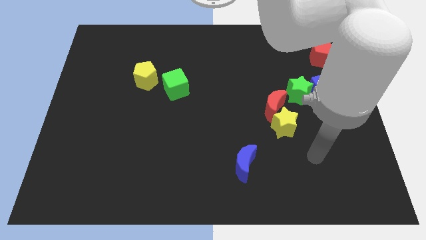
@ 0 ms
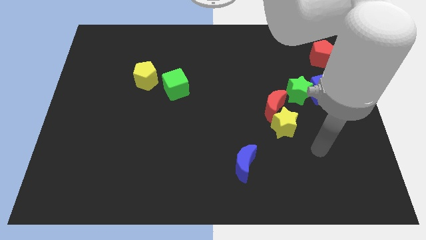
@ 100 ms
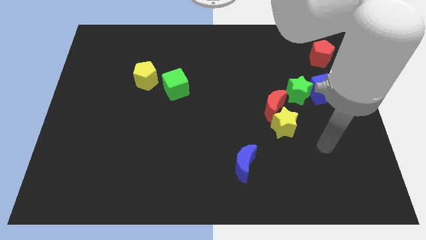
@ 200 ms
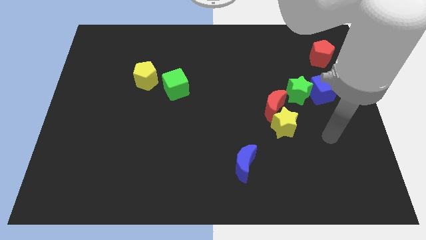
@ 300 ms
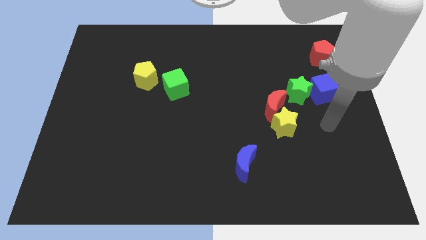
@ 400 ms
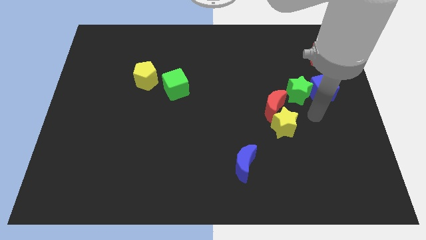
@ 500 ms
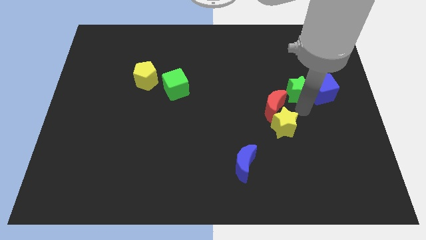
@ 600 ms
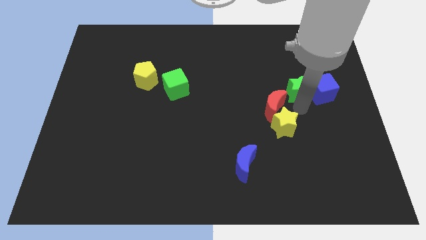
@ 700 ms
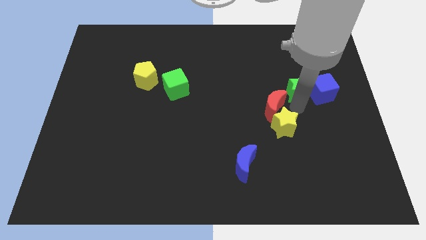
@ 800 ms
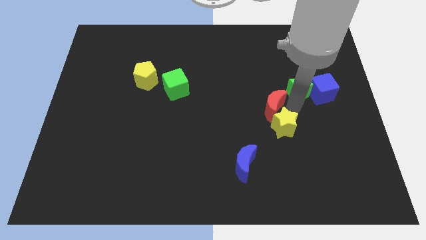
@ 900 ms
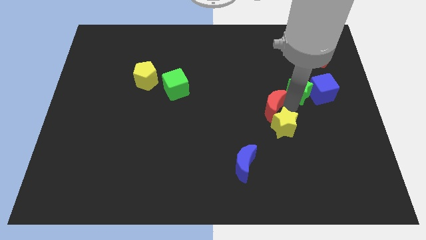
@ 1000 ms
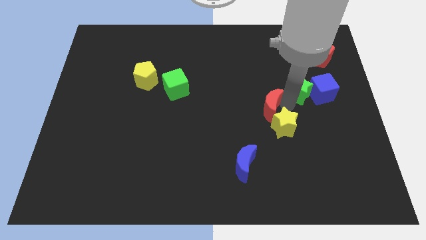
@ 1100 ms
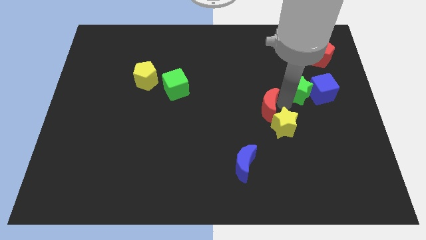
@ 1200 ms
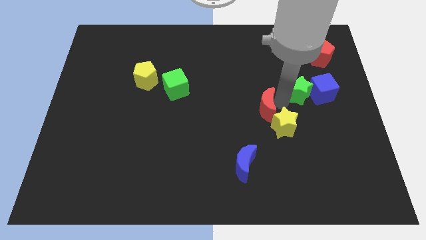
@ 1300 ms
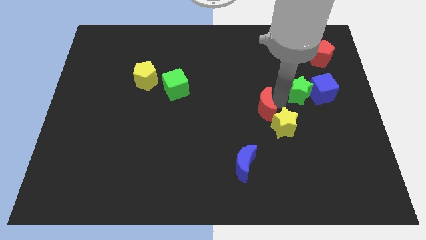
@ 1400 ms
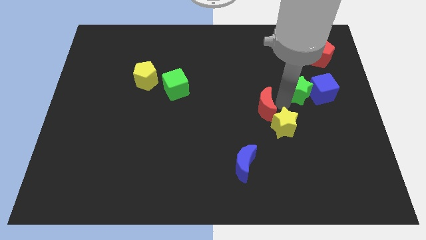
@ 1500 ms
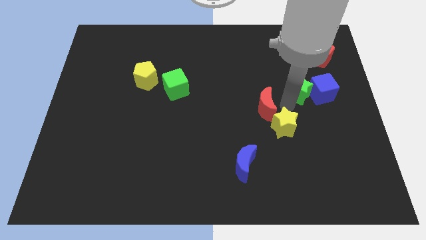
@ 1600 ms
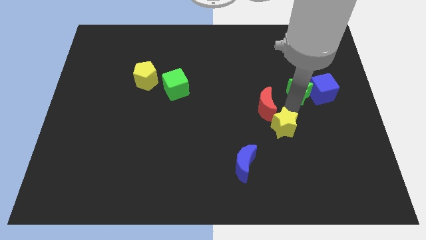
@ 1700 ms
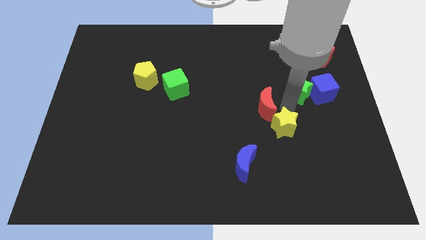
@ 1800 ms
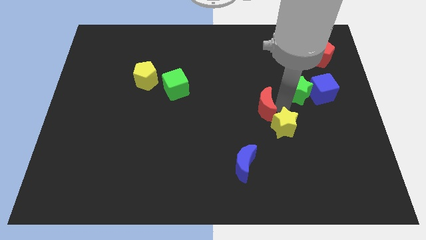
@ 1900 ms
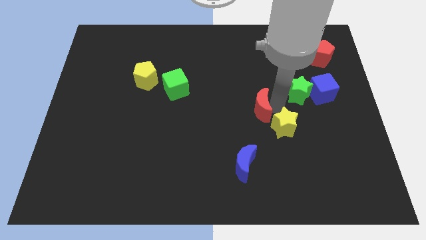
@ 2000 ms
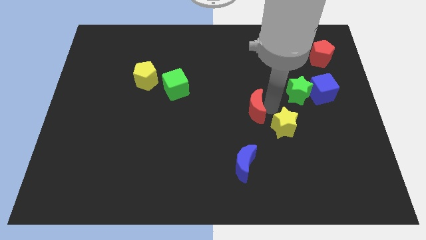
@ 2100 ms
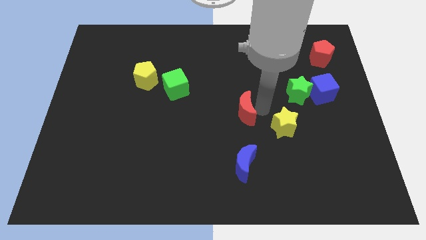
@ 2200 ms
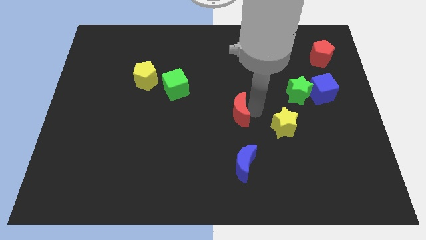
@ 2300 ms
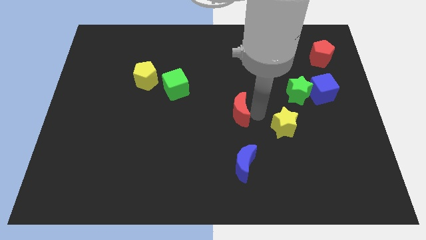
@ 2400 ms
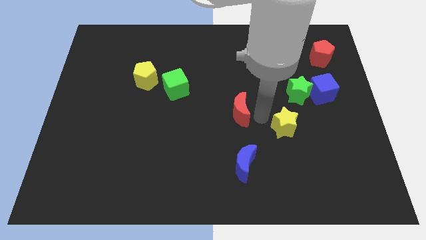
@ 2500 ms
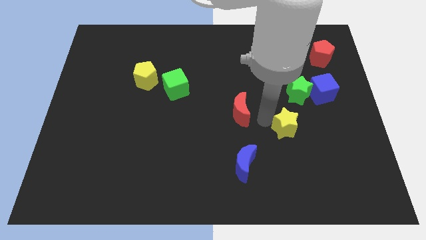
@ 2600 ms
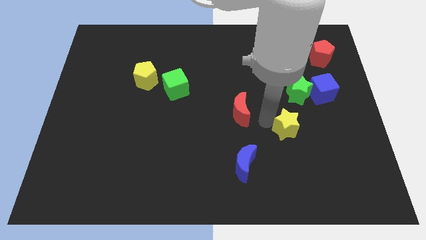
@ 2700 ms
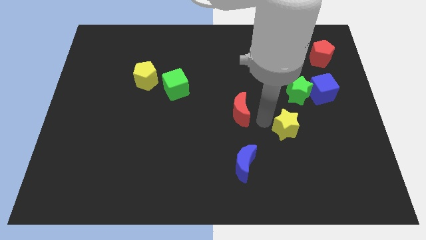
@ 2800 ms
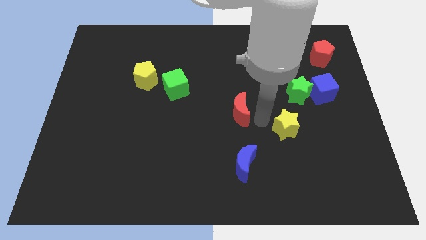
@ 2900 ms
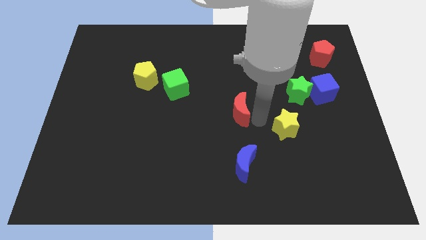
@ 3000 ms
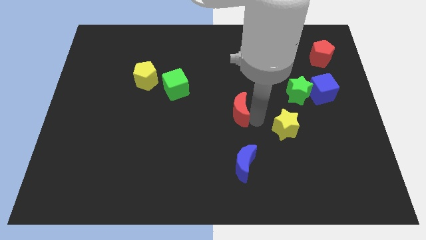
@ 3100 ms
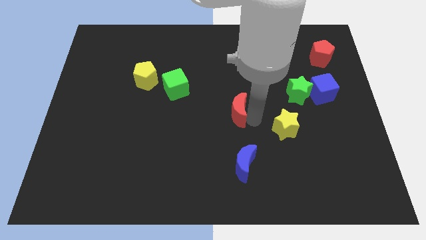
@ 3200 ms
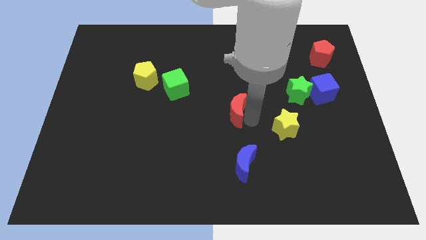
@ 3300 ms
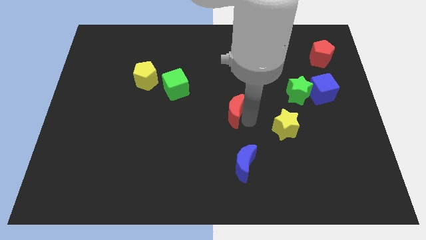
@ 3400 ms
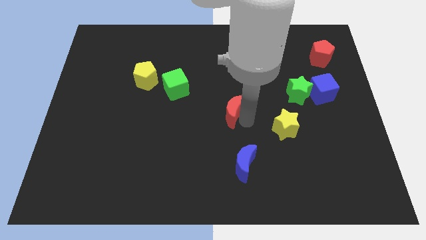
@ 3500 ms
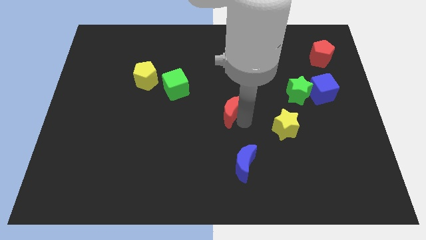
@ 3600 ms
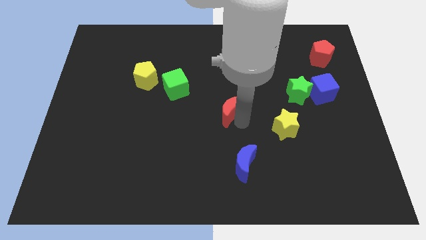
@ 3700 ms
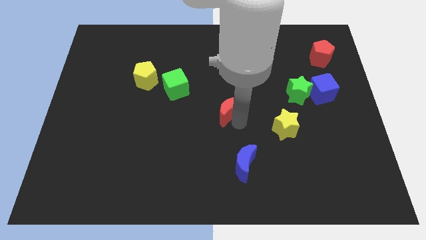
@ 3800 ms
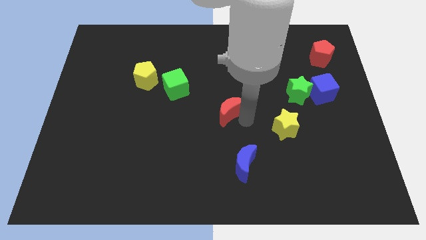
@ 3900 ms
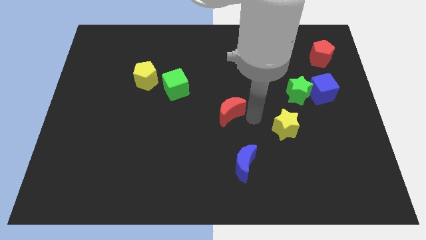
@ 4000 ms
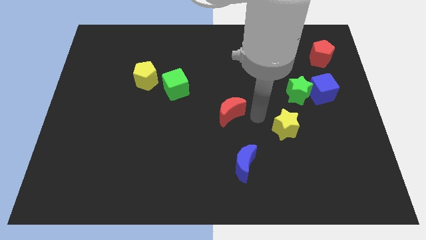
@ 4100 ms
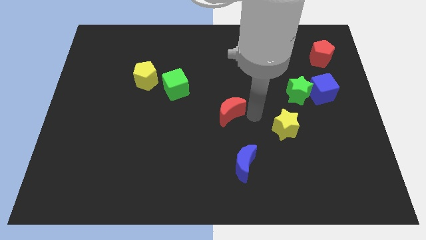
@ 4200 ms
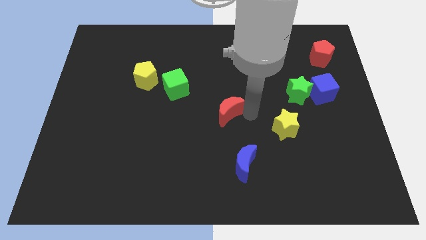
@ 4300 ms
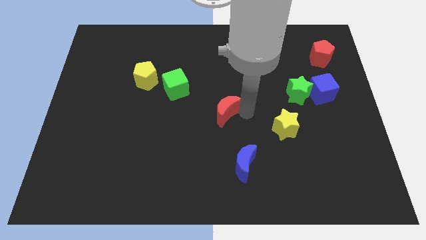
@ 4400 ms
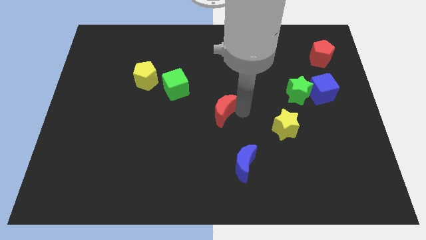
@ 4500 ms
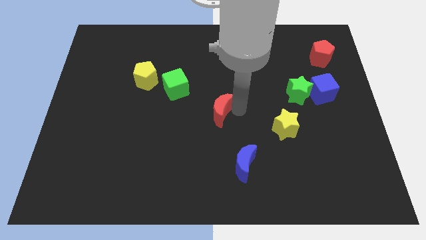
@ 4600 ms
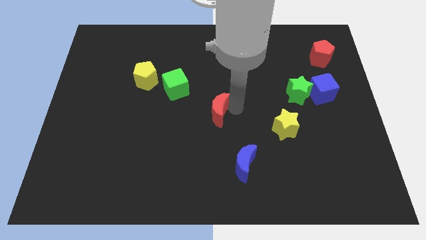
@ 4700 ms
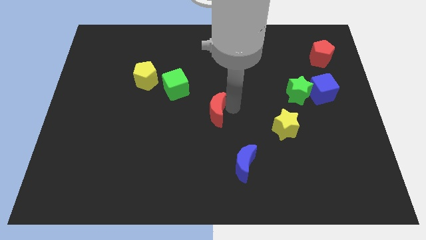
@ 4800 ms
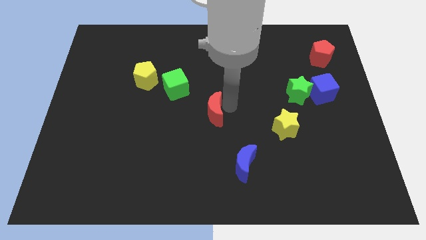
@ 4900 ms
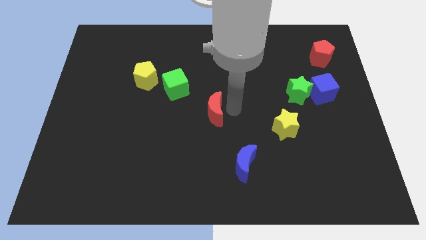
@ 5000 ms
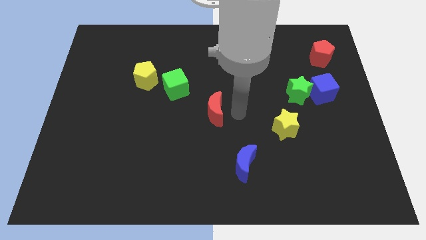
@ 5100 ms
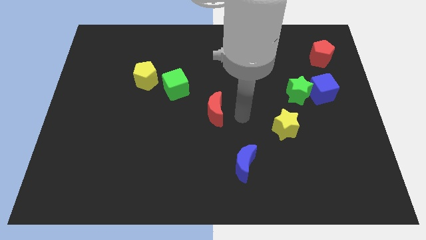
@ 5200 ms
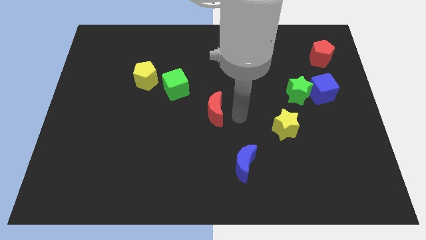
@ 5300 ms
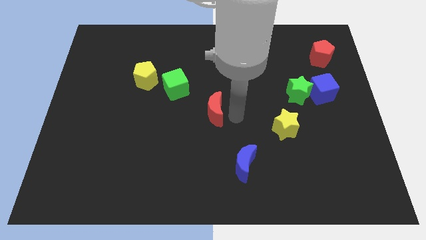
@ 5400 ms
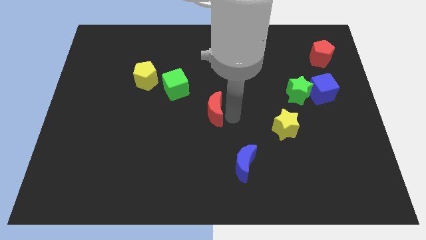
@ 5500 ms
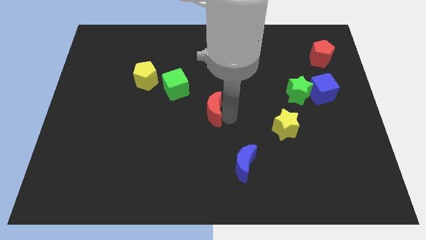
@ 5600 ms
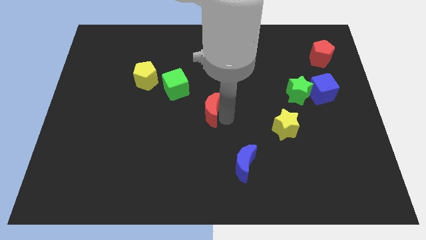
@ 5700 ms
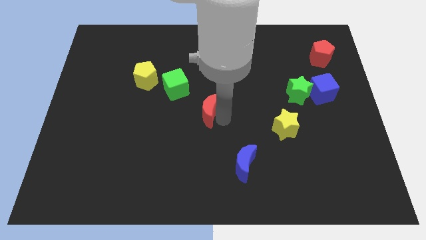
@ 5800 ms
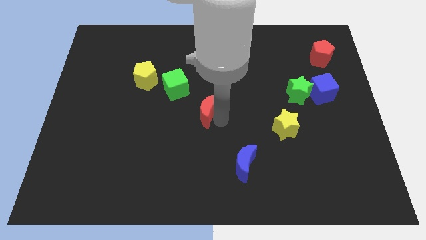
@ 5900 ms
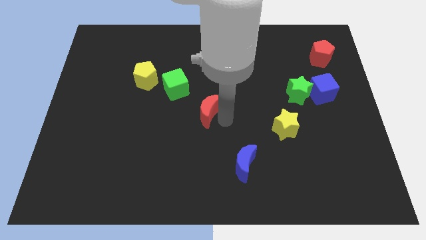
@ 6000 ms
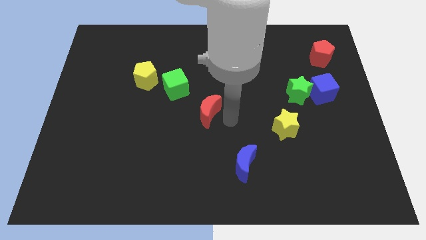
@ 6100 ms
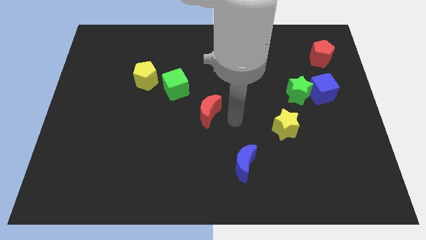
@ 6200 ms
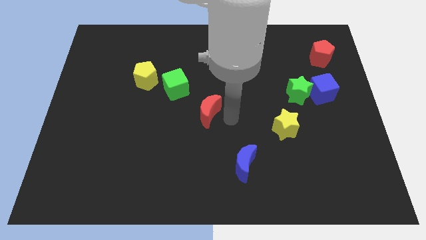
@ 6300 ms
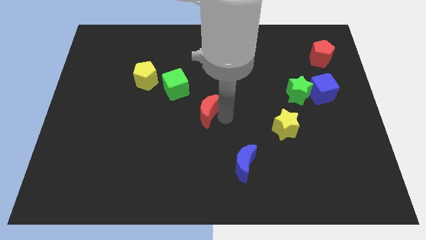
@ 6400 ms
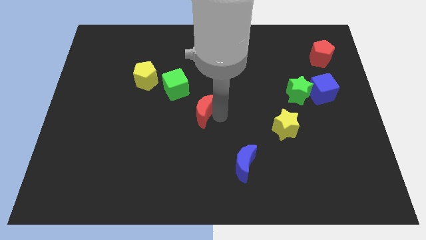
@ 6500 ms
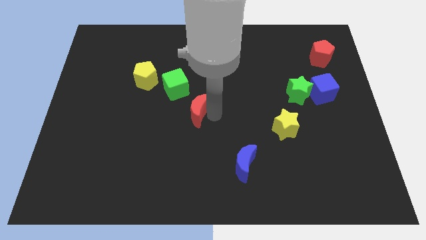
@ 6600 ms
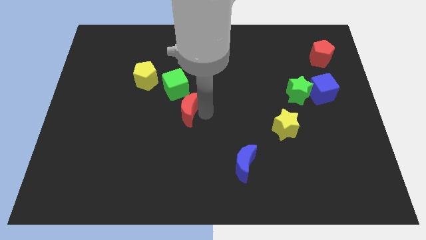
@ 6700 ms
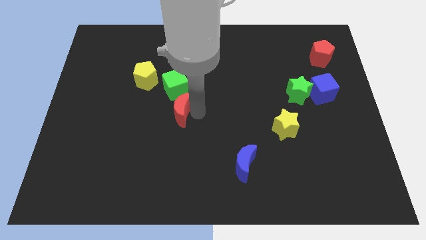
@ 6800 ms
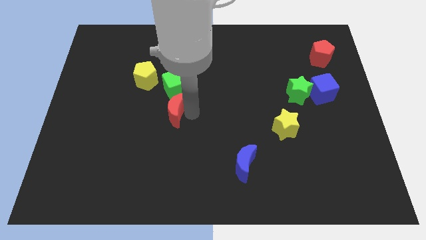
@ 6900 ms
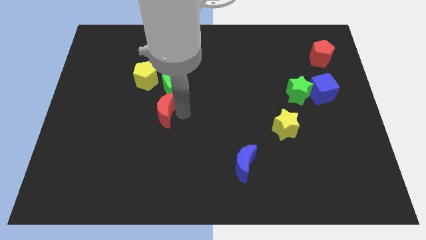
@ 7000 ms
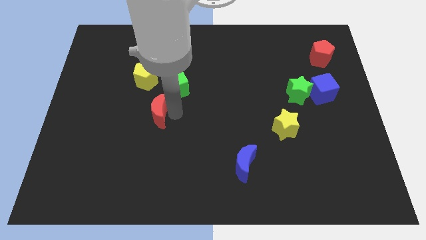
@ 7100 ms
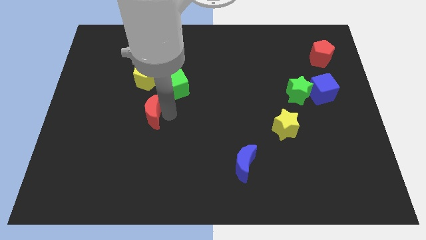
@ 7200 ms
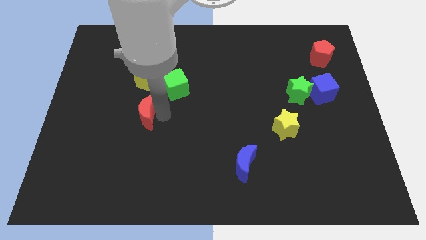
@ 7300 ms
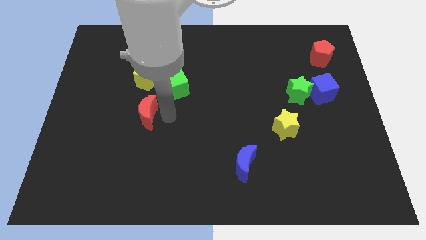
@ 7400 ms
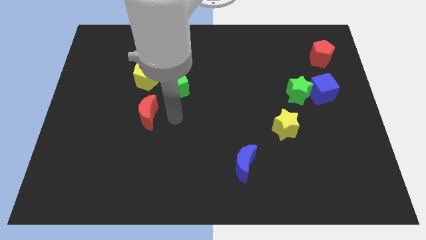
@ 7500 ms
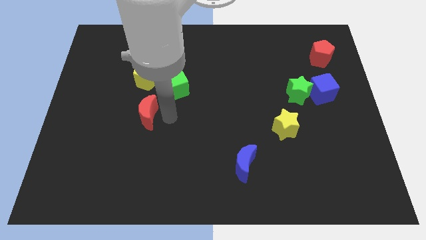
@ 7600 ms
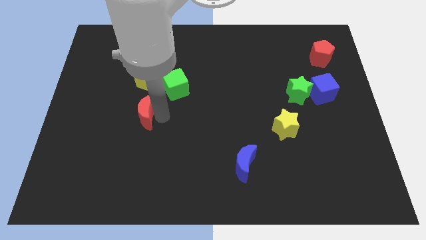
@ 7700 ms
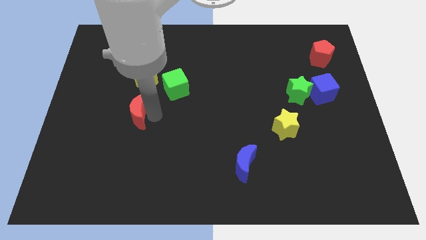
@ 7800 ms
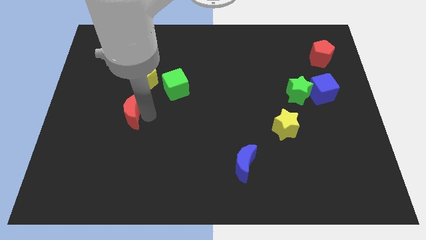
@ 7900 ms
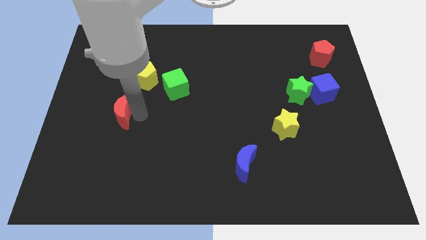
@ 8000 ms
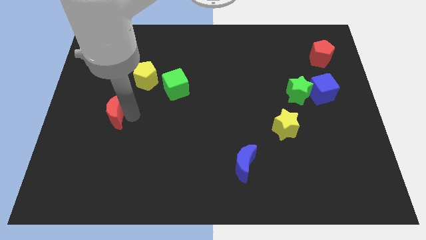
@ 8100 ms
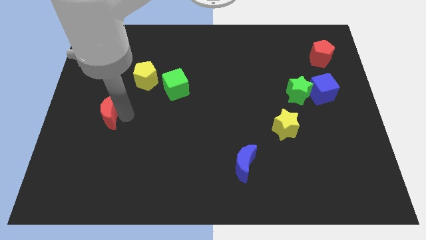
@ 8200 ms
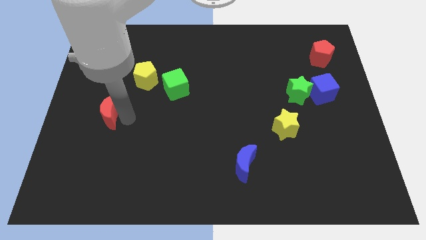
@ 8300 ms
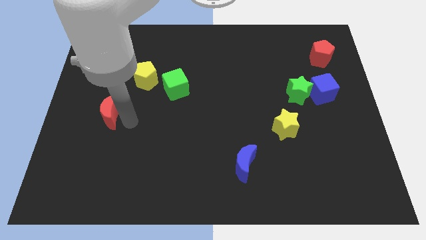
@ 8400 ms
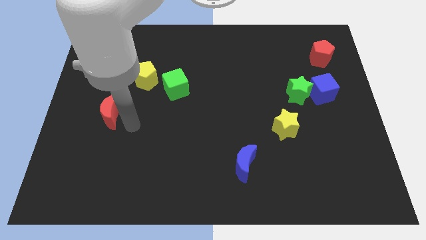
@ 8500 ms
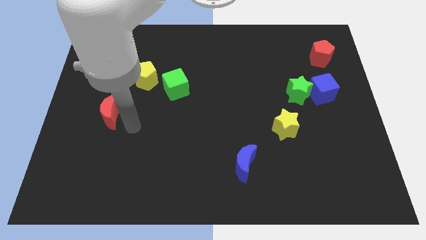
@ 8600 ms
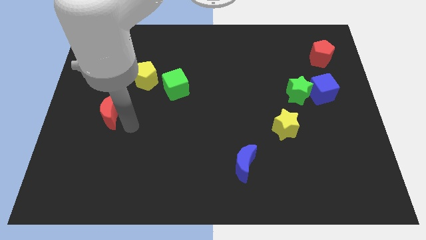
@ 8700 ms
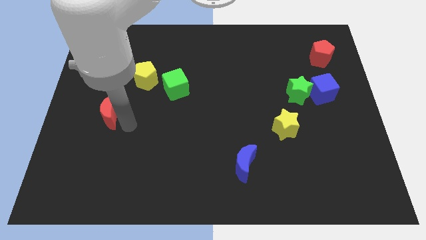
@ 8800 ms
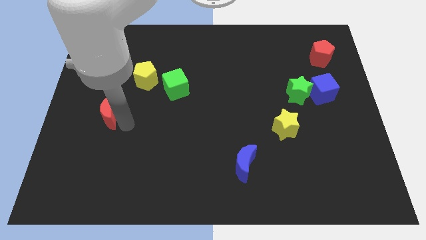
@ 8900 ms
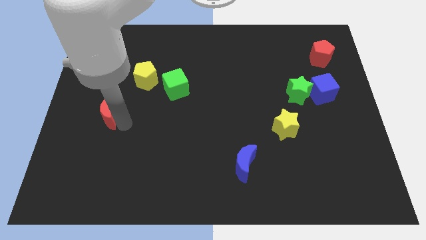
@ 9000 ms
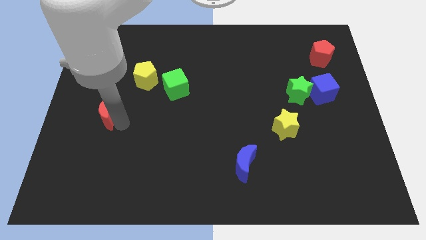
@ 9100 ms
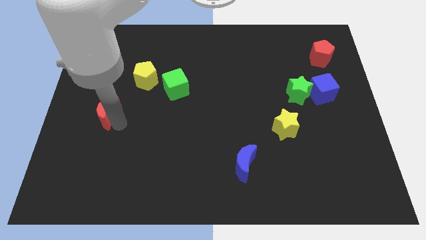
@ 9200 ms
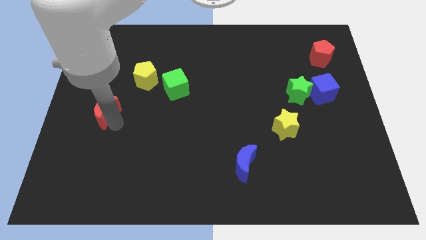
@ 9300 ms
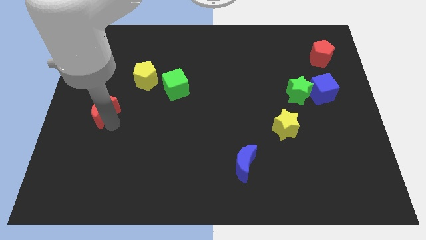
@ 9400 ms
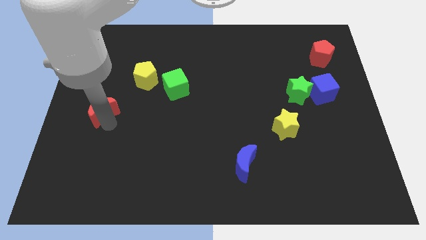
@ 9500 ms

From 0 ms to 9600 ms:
move the red moon to the center left
